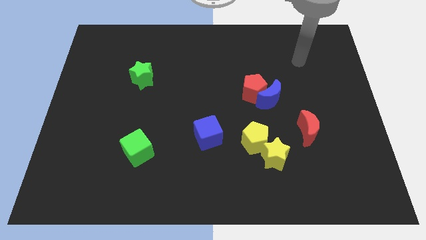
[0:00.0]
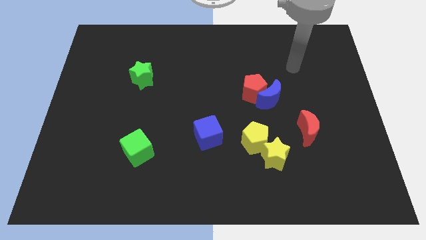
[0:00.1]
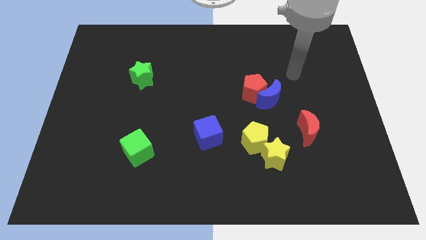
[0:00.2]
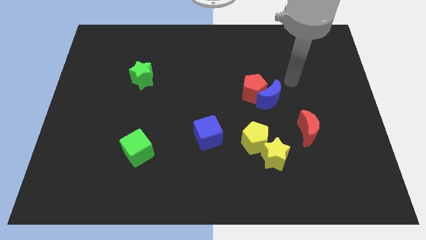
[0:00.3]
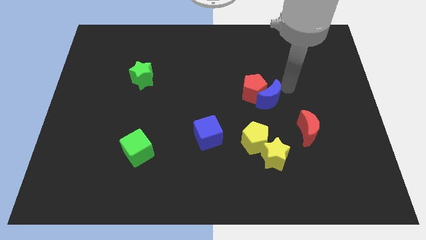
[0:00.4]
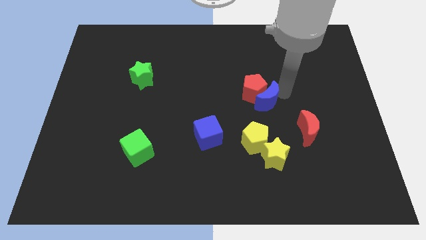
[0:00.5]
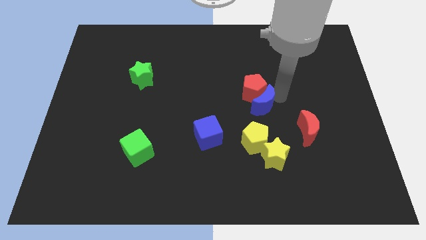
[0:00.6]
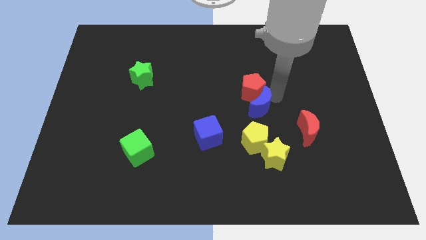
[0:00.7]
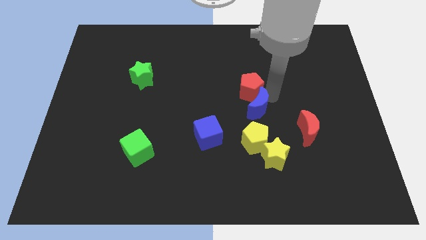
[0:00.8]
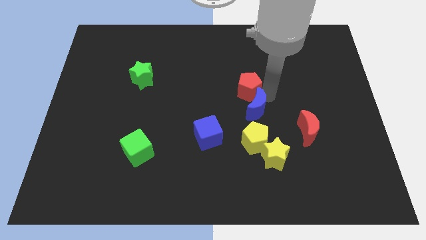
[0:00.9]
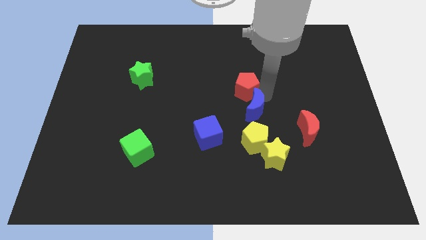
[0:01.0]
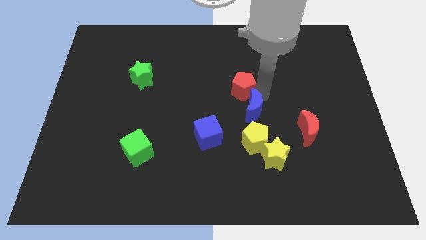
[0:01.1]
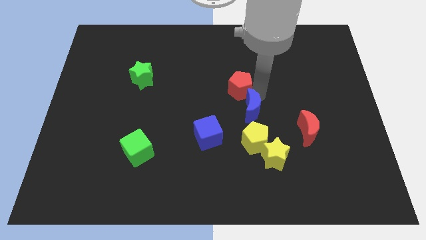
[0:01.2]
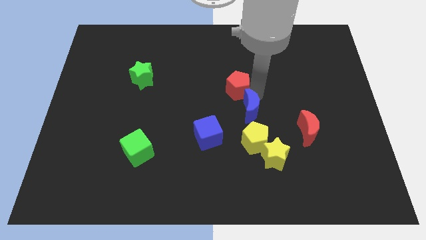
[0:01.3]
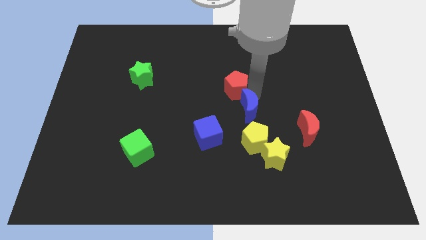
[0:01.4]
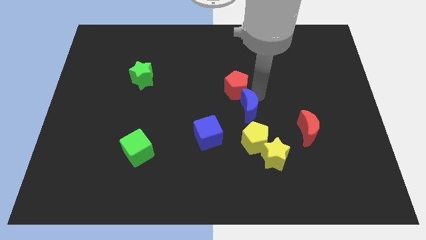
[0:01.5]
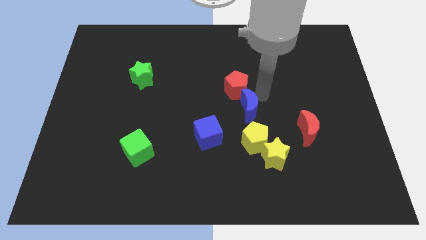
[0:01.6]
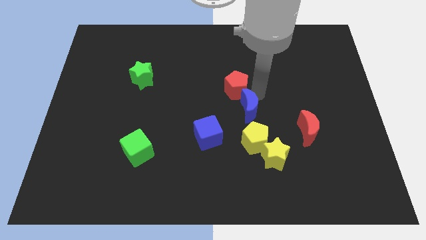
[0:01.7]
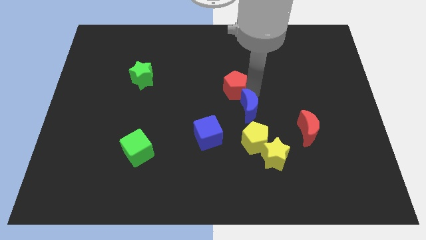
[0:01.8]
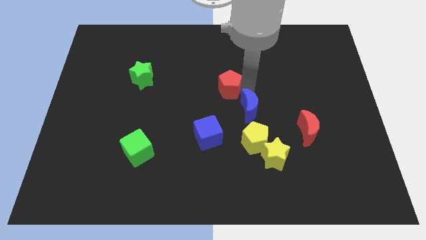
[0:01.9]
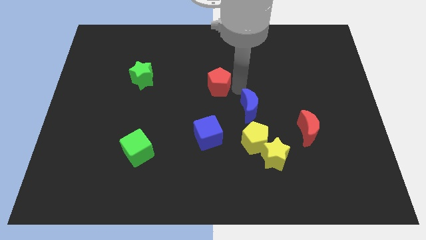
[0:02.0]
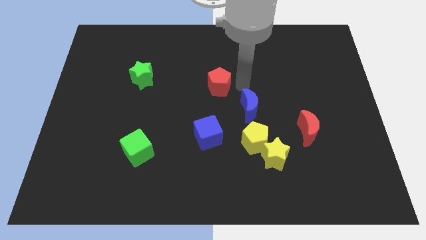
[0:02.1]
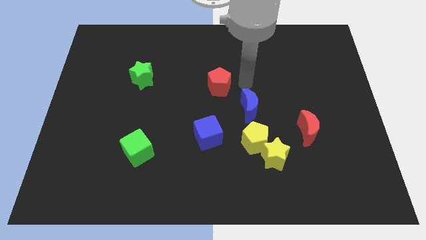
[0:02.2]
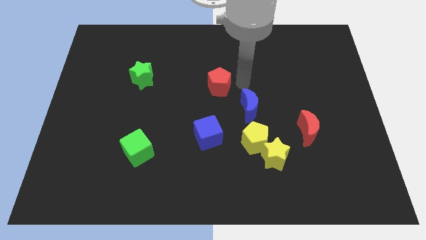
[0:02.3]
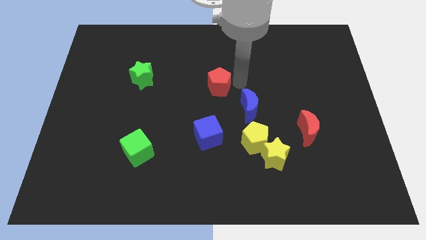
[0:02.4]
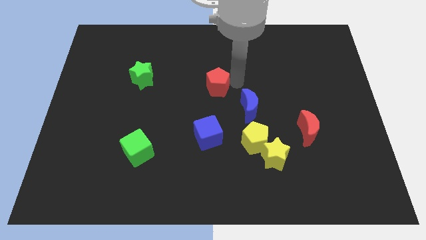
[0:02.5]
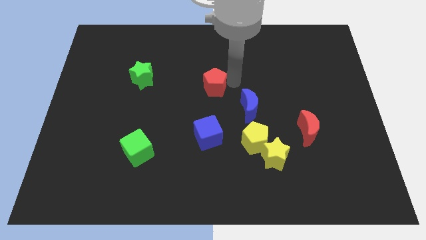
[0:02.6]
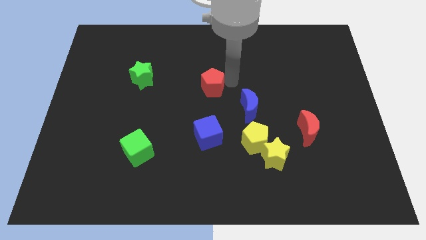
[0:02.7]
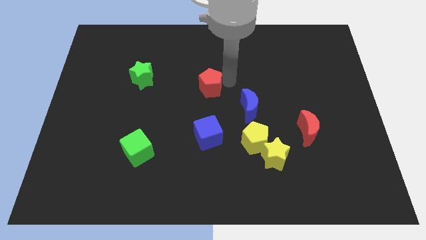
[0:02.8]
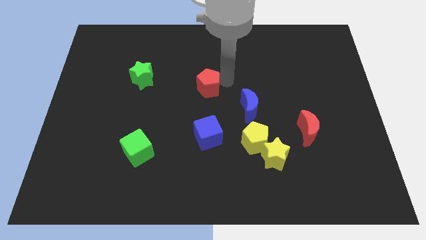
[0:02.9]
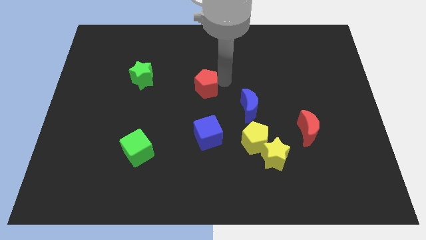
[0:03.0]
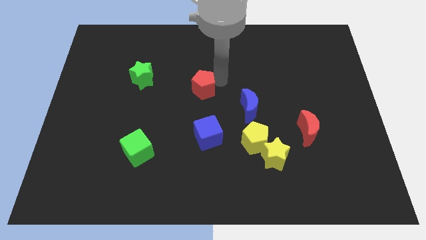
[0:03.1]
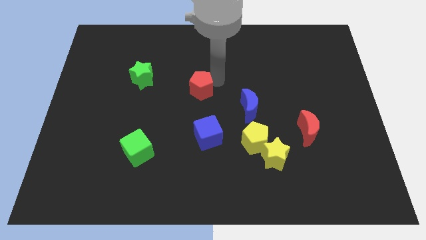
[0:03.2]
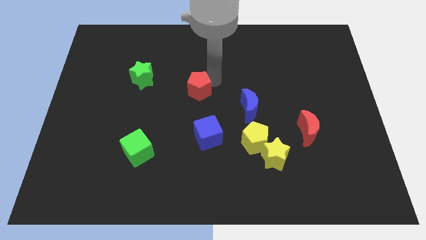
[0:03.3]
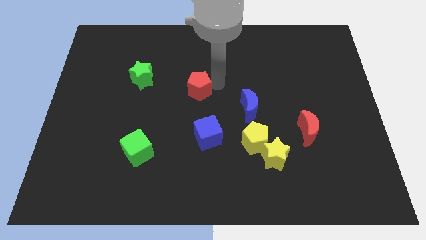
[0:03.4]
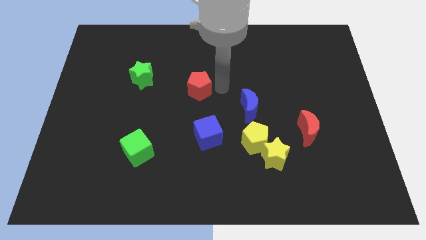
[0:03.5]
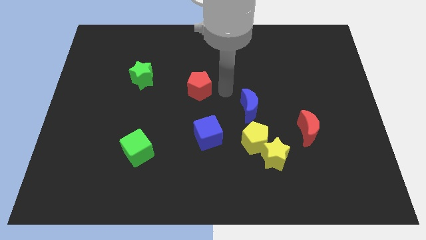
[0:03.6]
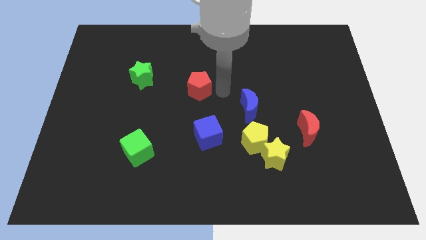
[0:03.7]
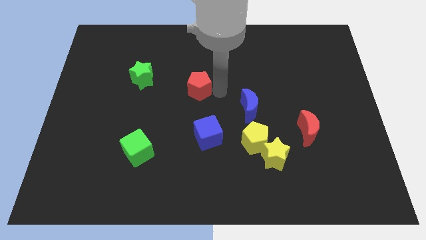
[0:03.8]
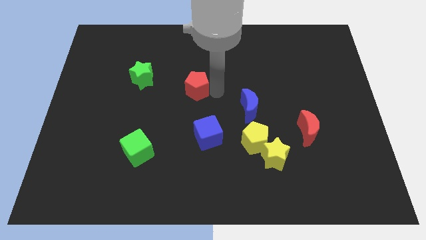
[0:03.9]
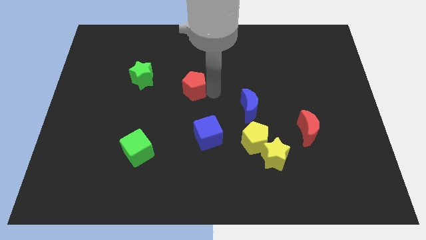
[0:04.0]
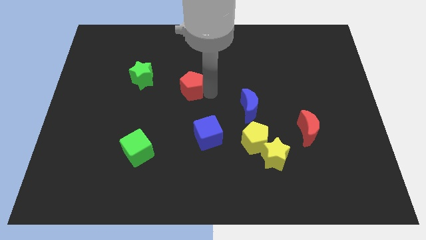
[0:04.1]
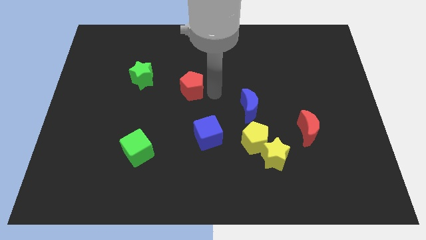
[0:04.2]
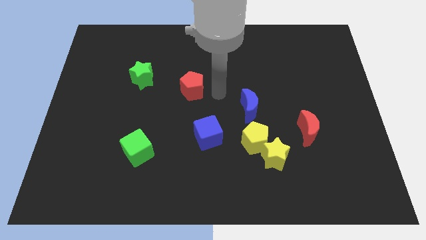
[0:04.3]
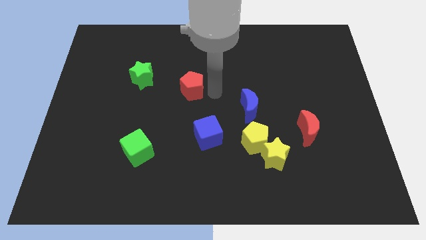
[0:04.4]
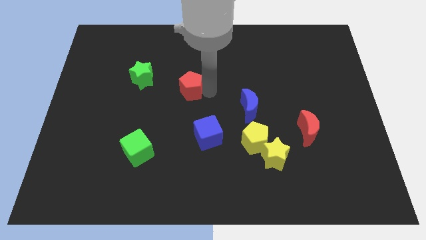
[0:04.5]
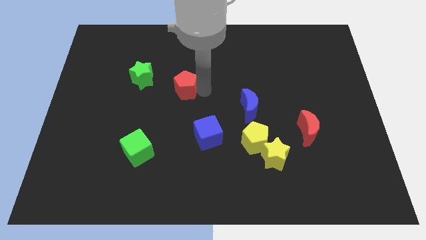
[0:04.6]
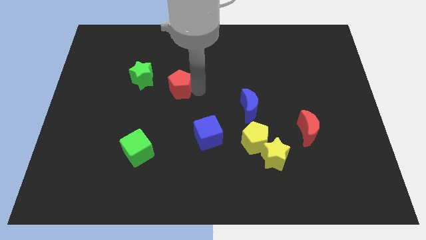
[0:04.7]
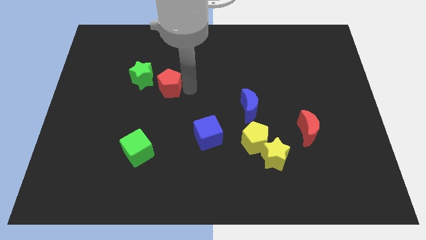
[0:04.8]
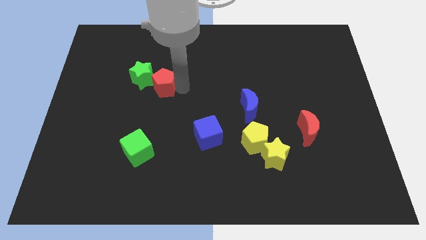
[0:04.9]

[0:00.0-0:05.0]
move the red pentagon to the green star

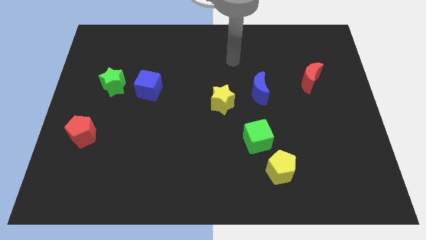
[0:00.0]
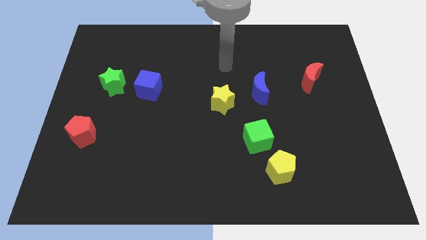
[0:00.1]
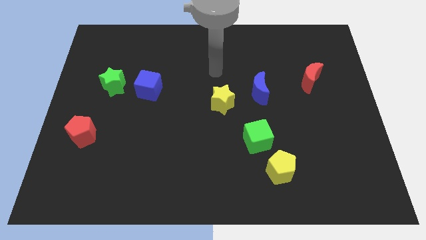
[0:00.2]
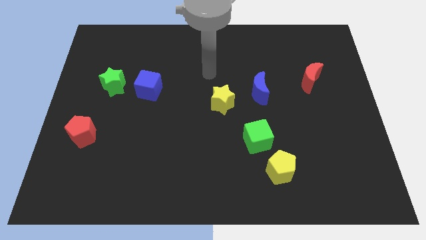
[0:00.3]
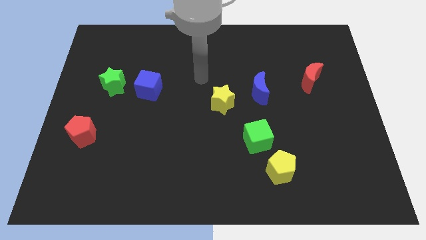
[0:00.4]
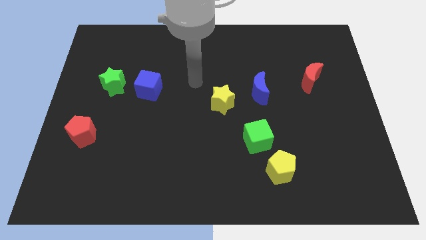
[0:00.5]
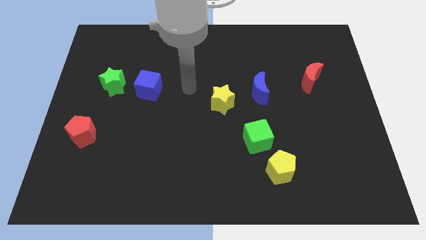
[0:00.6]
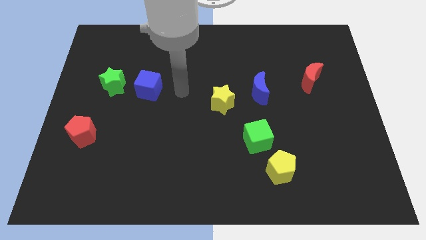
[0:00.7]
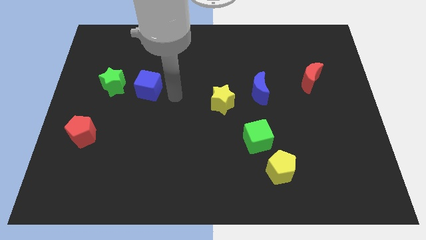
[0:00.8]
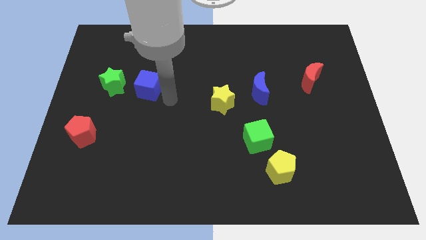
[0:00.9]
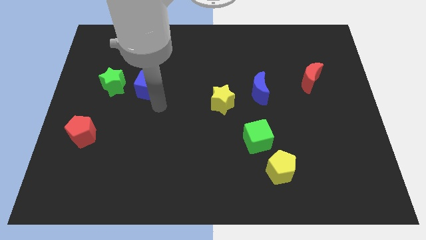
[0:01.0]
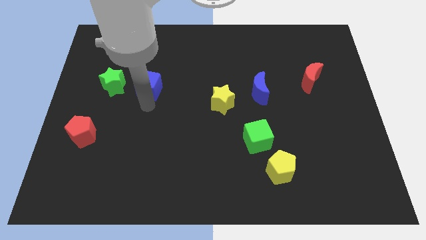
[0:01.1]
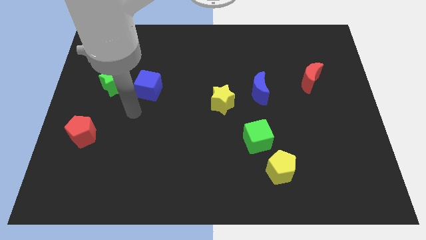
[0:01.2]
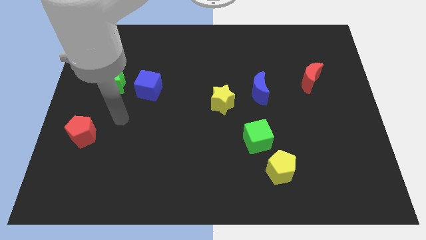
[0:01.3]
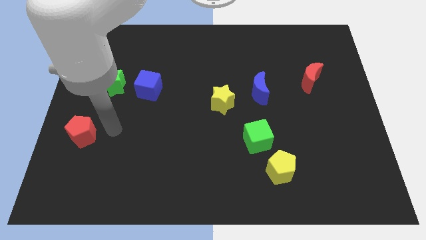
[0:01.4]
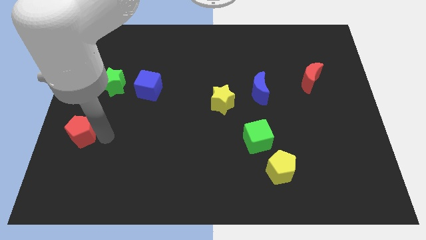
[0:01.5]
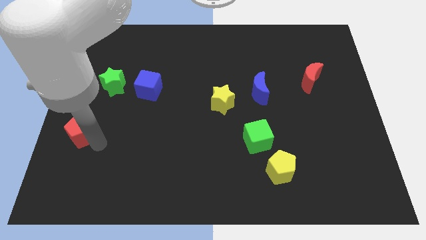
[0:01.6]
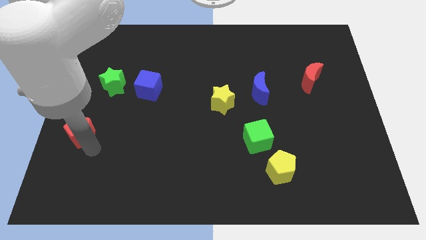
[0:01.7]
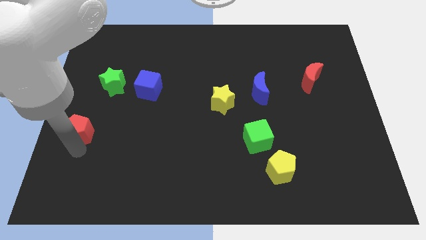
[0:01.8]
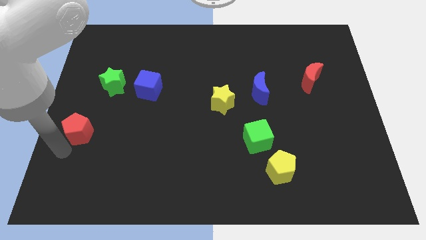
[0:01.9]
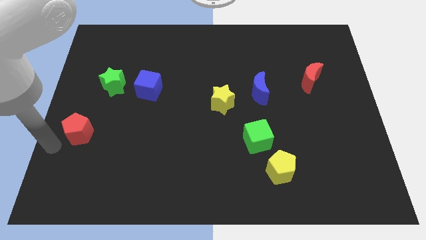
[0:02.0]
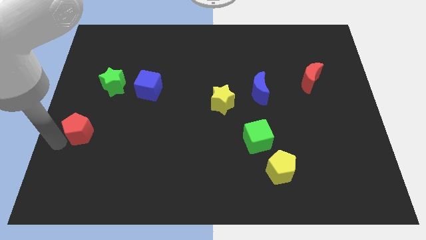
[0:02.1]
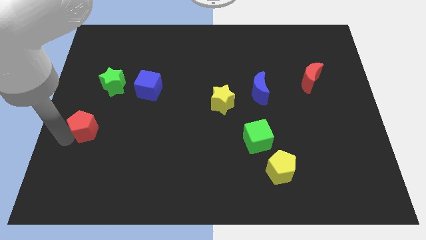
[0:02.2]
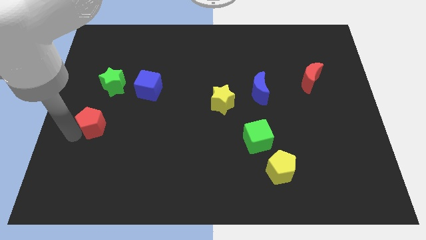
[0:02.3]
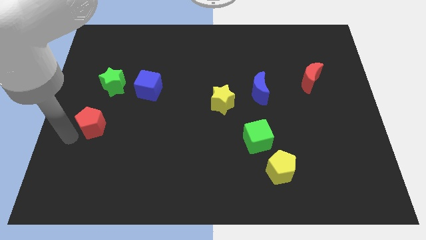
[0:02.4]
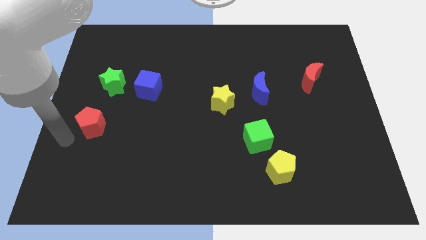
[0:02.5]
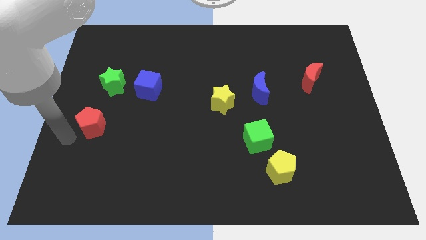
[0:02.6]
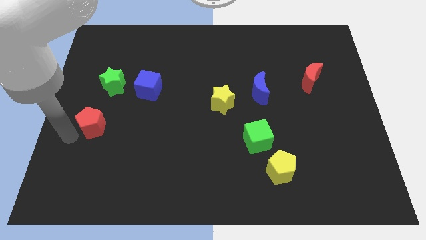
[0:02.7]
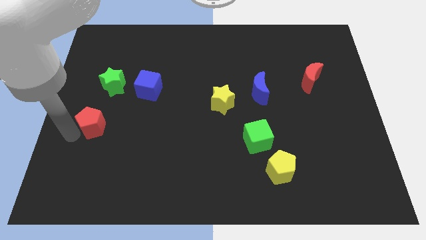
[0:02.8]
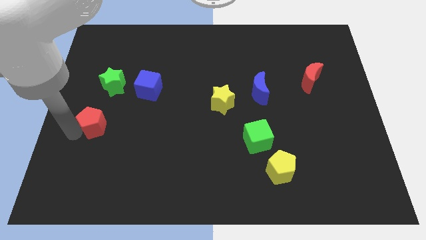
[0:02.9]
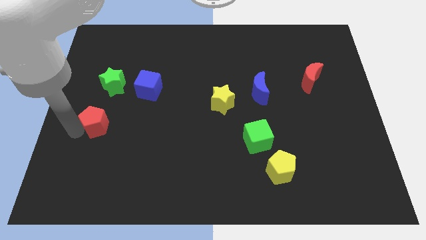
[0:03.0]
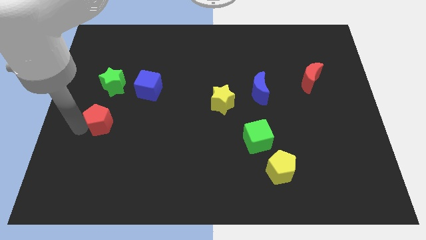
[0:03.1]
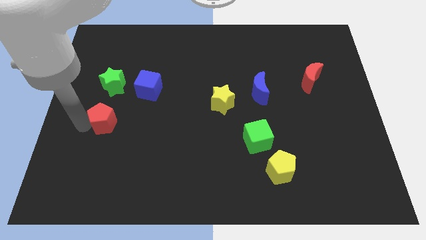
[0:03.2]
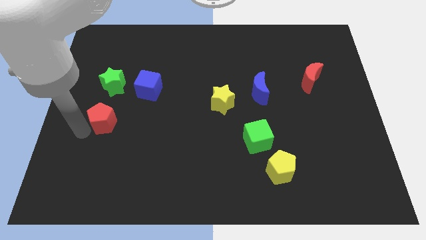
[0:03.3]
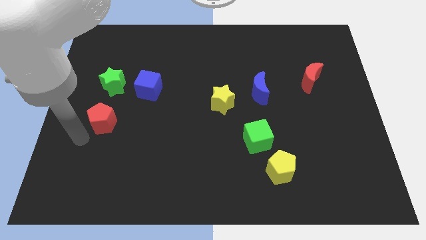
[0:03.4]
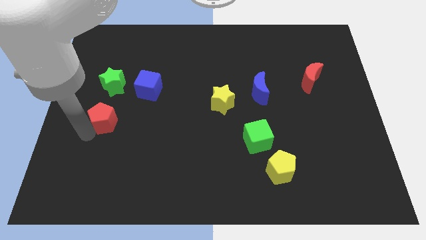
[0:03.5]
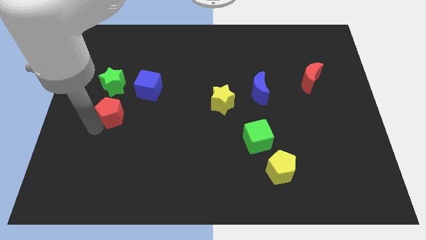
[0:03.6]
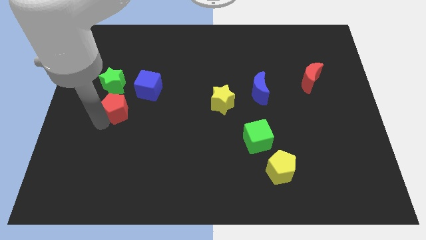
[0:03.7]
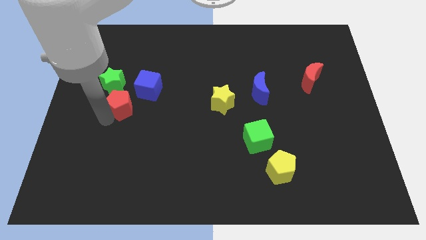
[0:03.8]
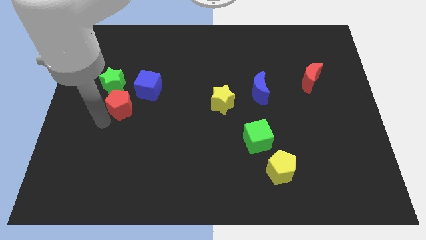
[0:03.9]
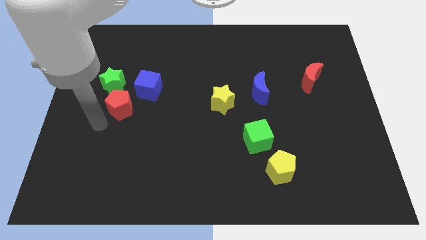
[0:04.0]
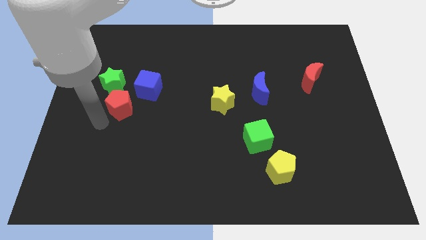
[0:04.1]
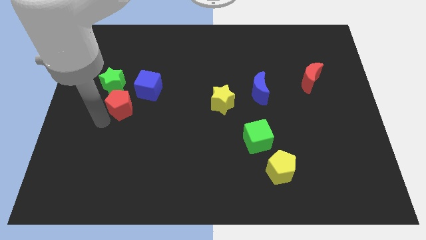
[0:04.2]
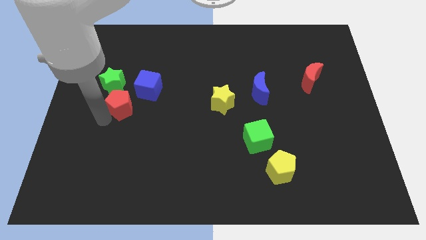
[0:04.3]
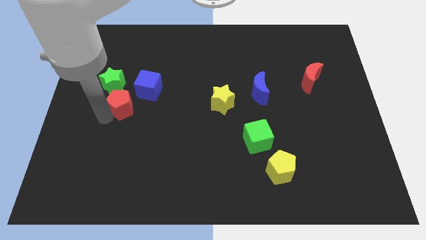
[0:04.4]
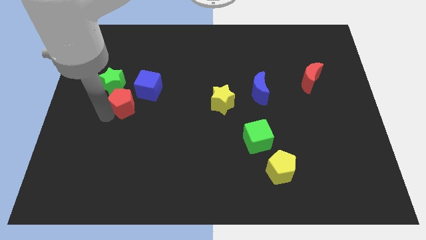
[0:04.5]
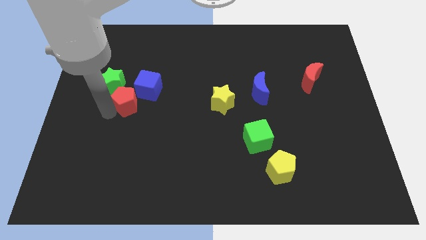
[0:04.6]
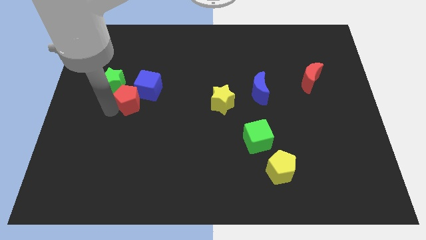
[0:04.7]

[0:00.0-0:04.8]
put the red pentagon to the blue cube
